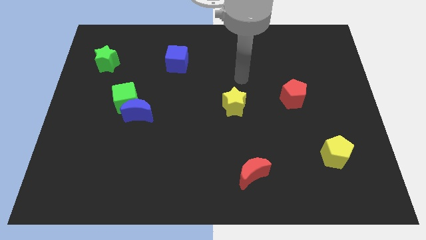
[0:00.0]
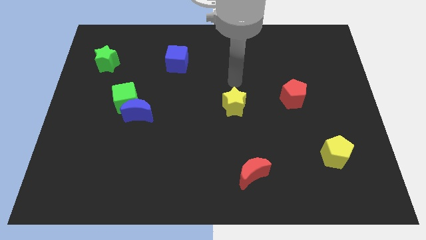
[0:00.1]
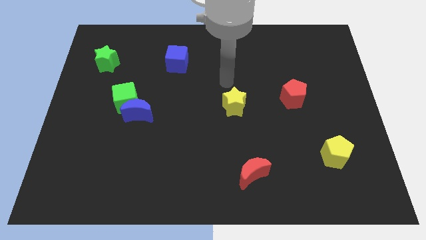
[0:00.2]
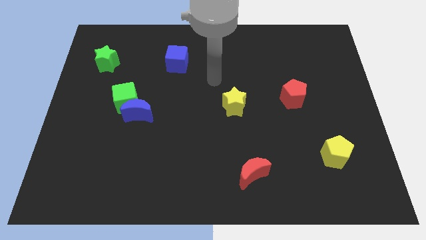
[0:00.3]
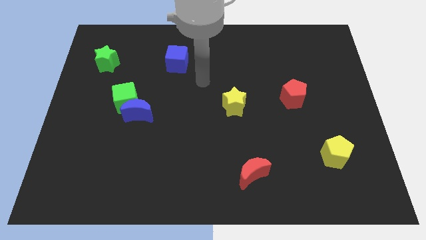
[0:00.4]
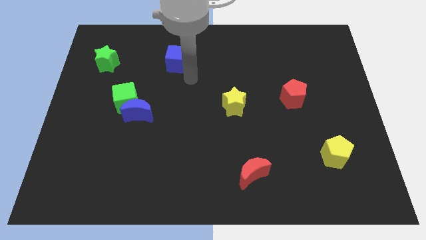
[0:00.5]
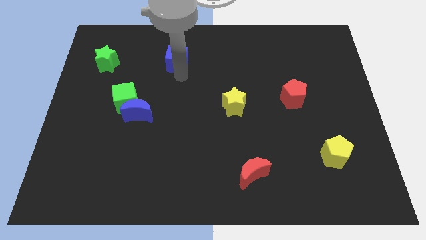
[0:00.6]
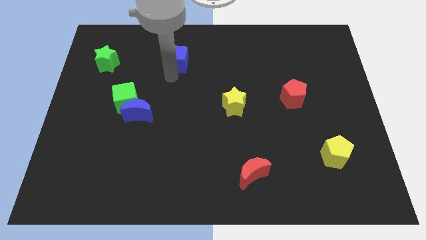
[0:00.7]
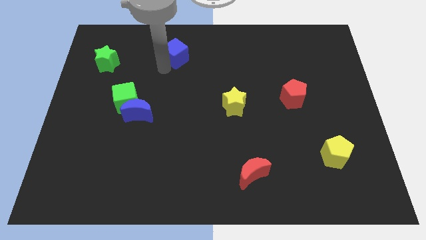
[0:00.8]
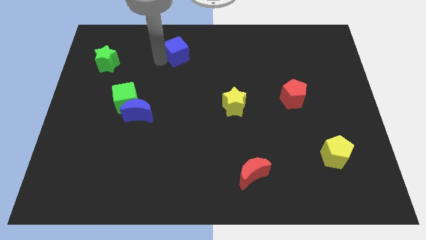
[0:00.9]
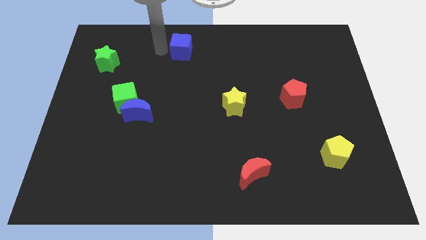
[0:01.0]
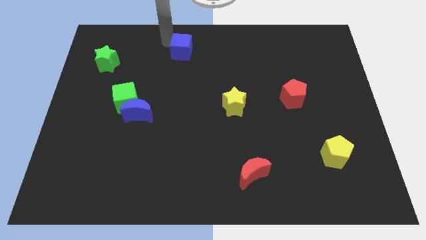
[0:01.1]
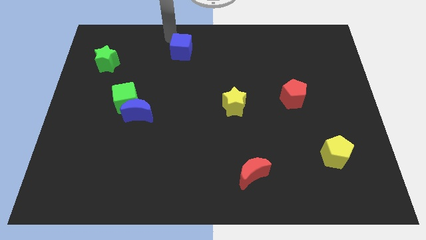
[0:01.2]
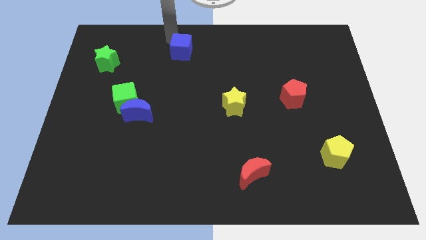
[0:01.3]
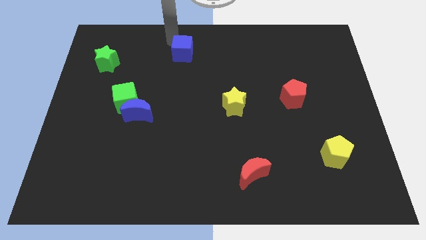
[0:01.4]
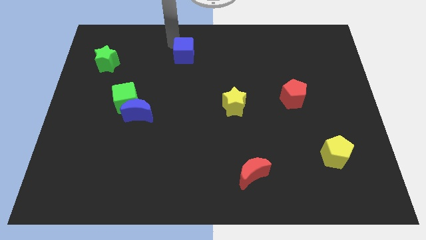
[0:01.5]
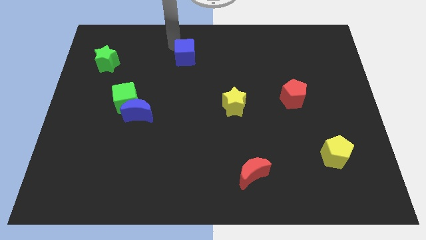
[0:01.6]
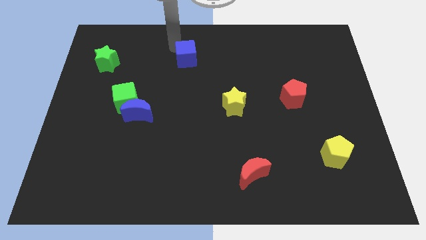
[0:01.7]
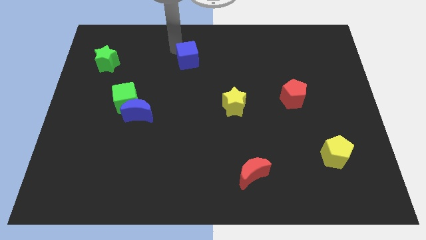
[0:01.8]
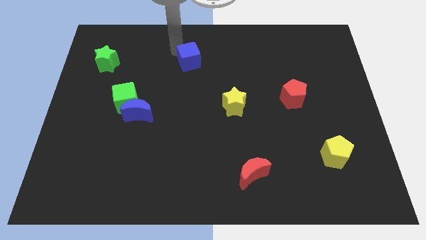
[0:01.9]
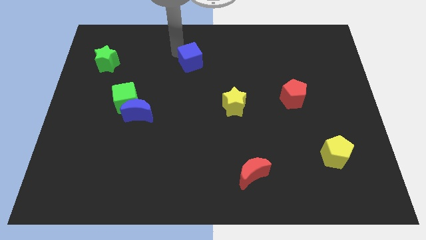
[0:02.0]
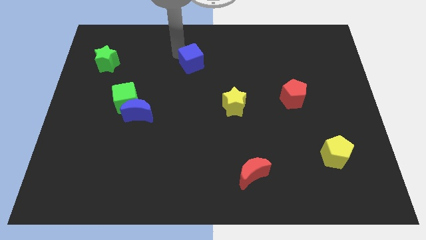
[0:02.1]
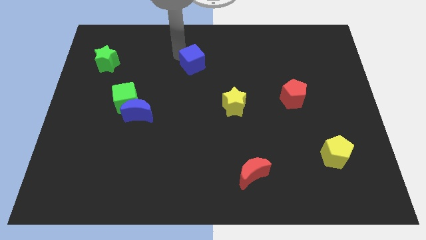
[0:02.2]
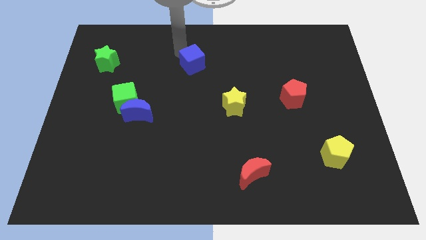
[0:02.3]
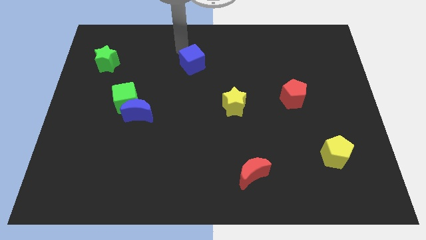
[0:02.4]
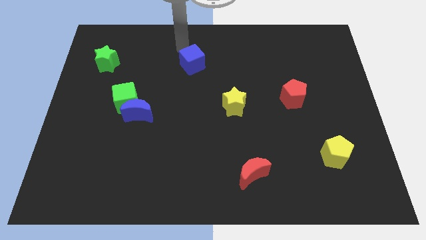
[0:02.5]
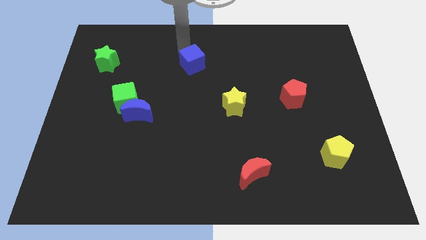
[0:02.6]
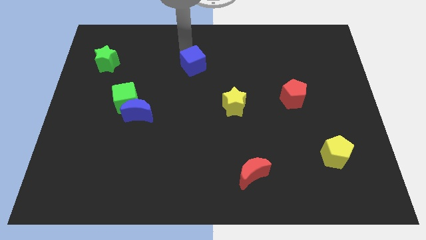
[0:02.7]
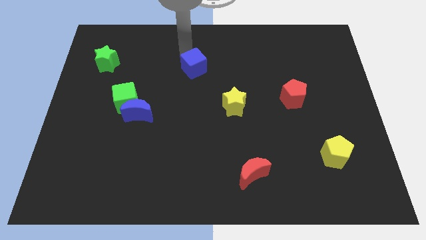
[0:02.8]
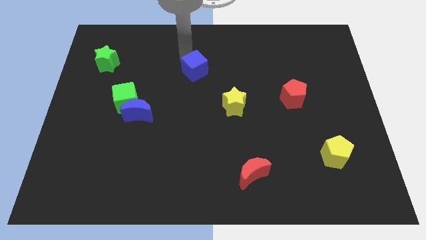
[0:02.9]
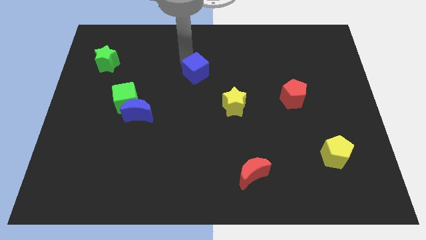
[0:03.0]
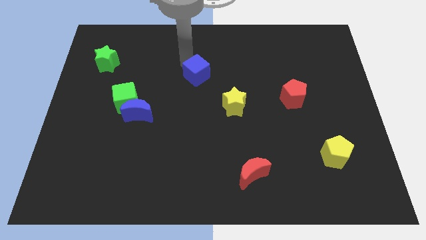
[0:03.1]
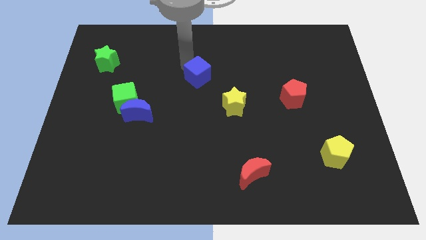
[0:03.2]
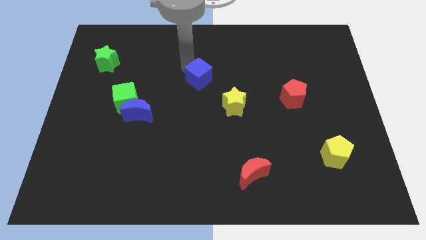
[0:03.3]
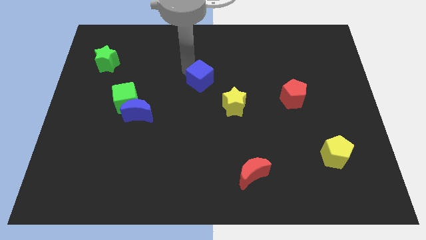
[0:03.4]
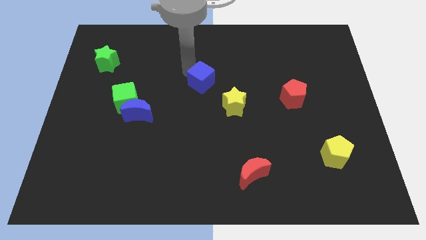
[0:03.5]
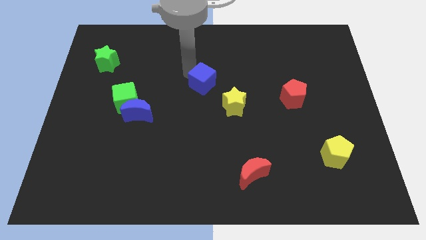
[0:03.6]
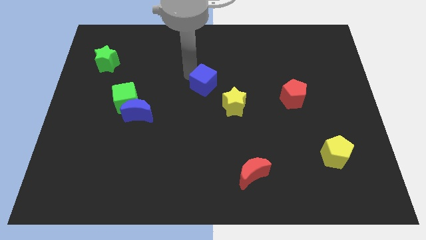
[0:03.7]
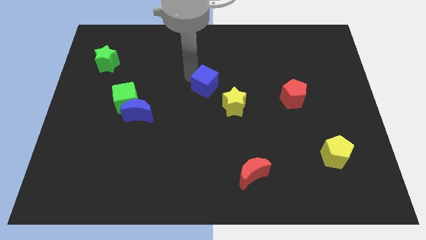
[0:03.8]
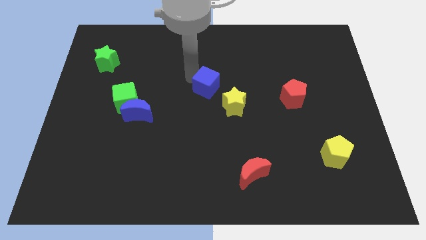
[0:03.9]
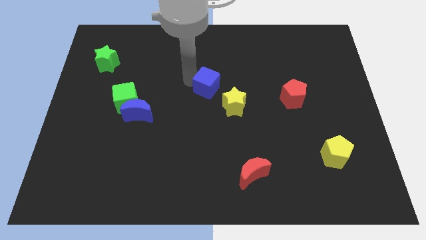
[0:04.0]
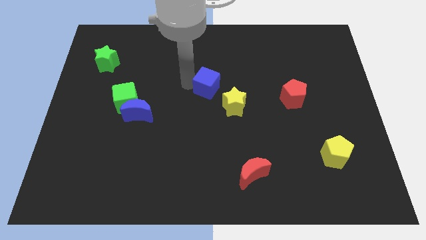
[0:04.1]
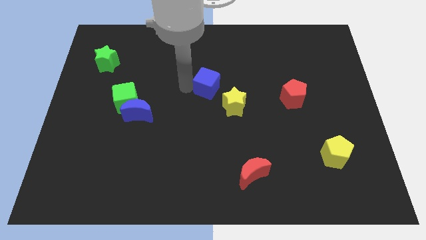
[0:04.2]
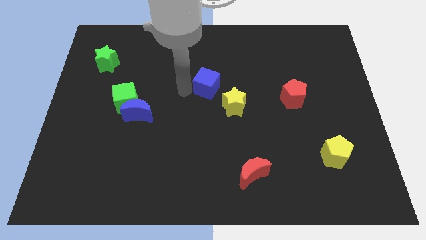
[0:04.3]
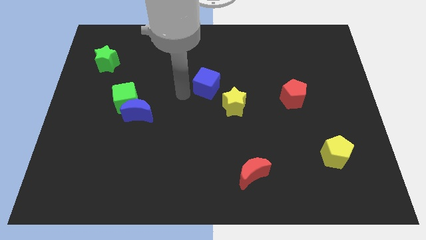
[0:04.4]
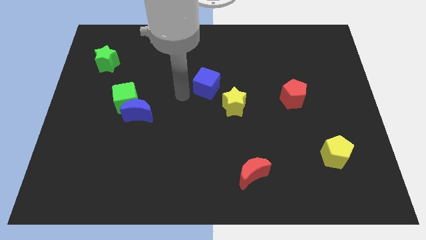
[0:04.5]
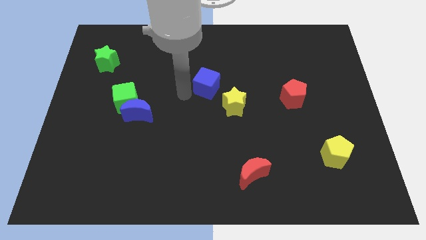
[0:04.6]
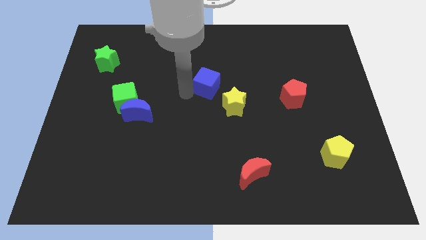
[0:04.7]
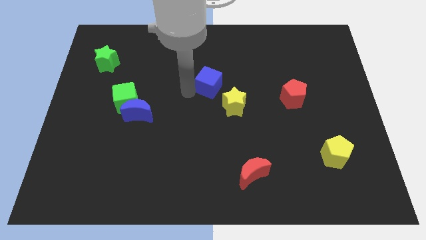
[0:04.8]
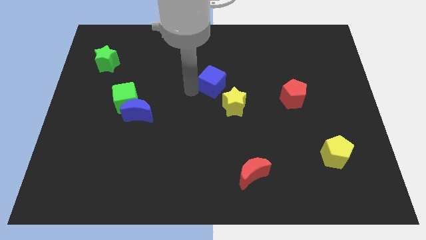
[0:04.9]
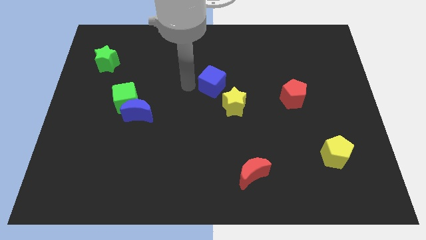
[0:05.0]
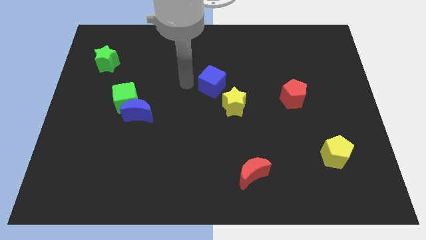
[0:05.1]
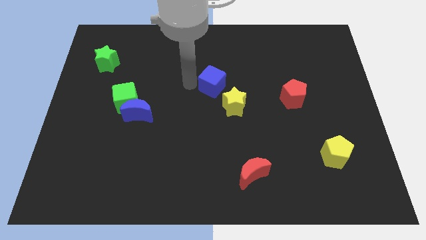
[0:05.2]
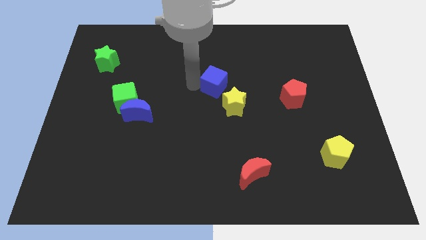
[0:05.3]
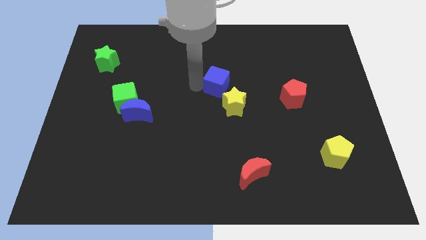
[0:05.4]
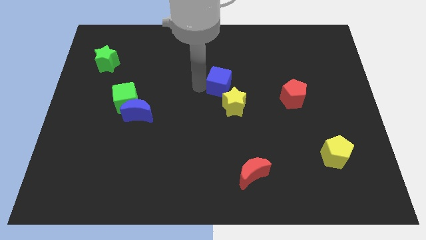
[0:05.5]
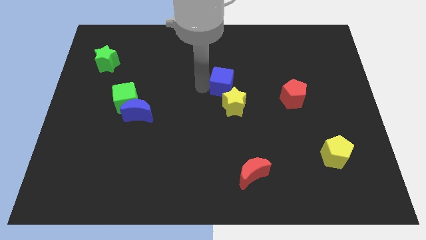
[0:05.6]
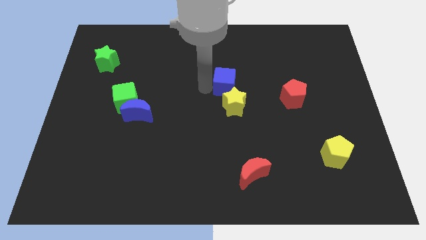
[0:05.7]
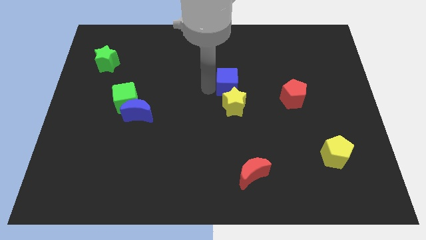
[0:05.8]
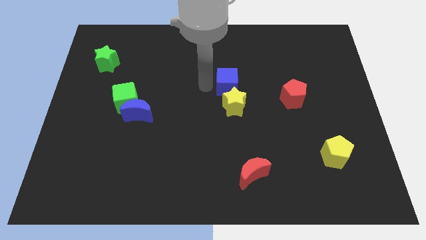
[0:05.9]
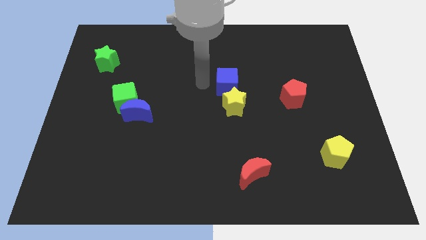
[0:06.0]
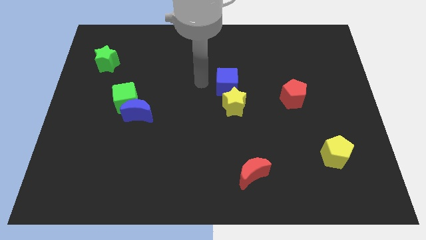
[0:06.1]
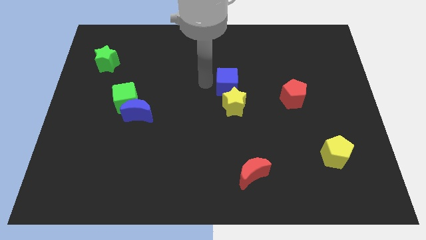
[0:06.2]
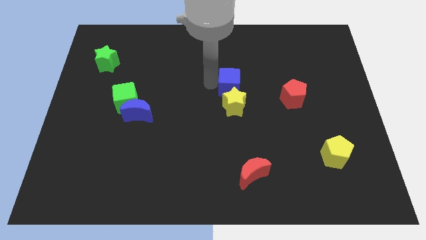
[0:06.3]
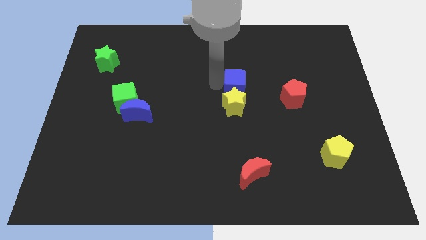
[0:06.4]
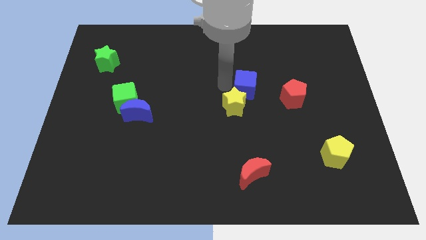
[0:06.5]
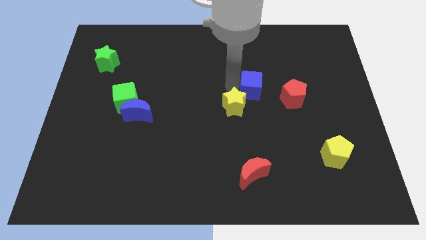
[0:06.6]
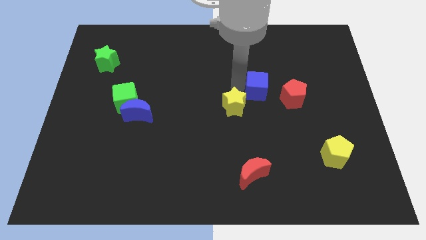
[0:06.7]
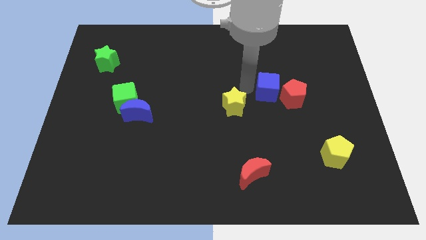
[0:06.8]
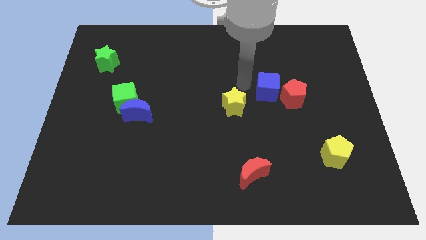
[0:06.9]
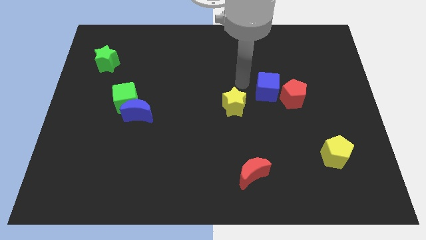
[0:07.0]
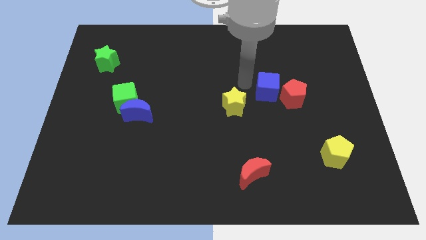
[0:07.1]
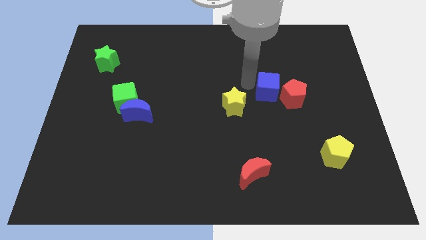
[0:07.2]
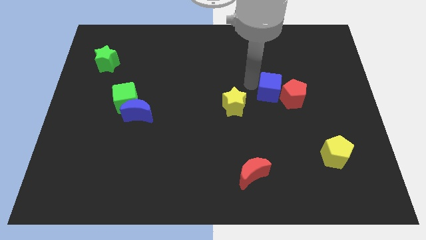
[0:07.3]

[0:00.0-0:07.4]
slide the blue cube to the red pentagon

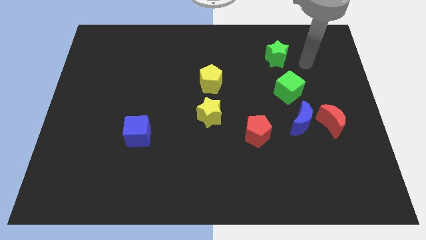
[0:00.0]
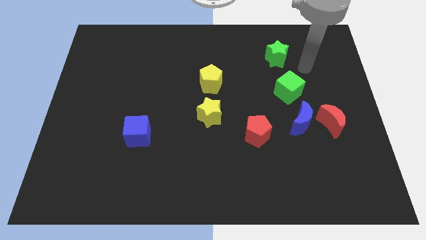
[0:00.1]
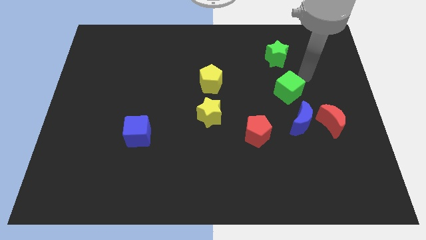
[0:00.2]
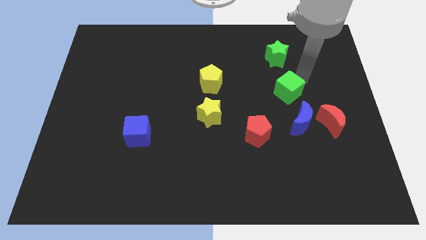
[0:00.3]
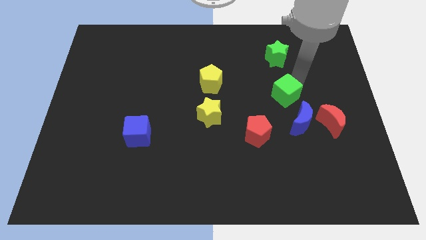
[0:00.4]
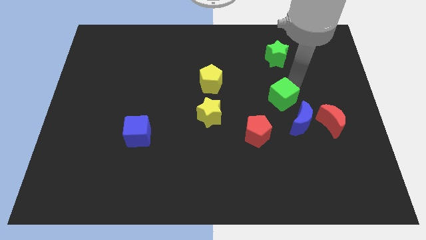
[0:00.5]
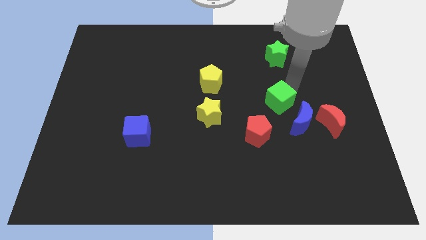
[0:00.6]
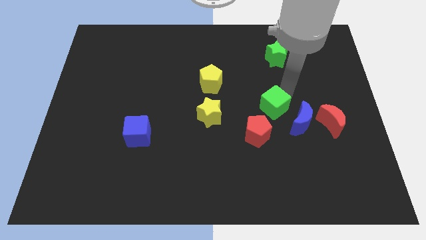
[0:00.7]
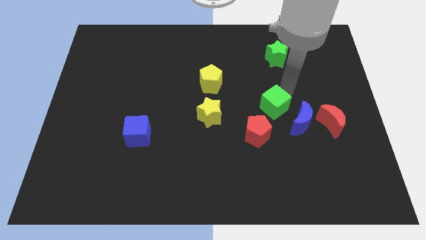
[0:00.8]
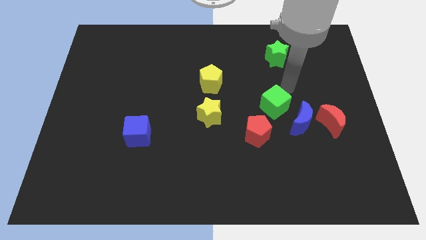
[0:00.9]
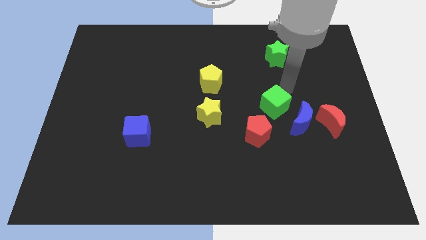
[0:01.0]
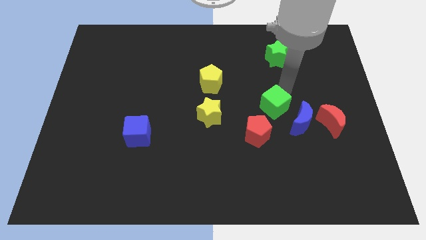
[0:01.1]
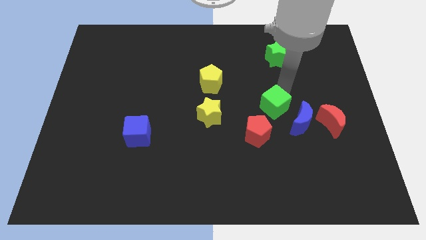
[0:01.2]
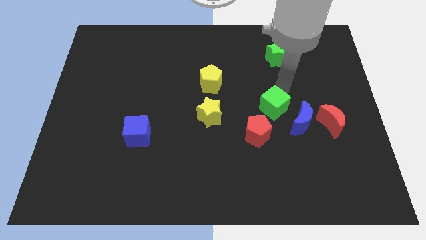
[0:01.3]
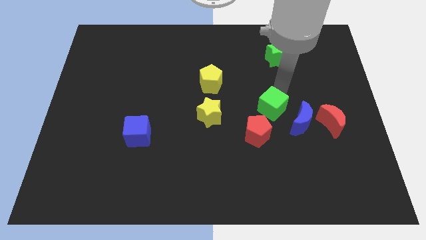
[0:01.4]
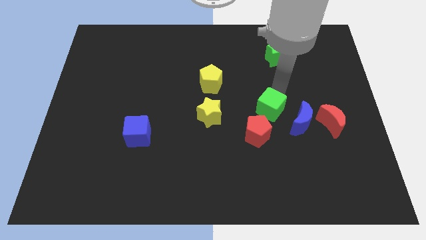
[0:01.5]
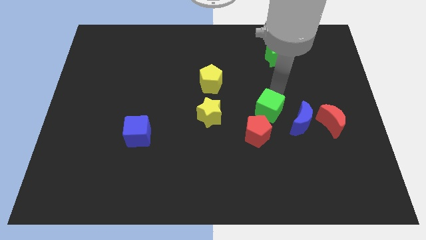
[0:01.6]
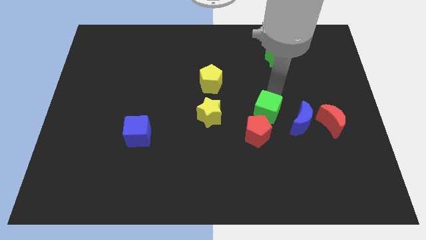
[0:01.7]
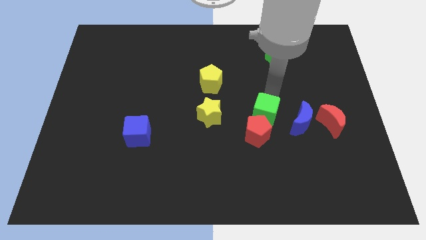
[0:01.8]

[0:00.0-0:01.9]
put the green cube to the red pentagon

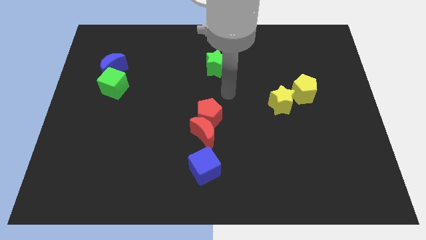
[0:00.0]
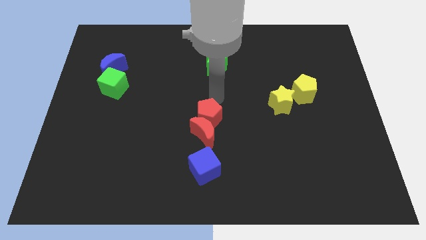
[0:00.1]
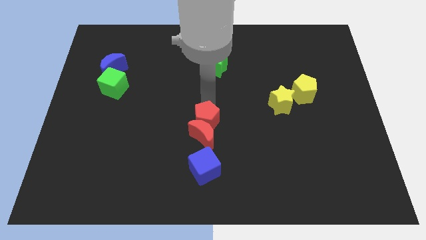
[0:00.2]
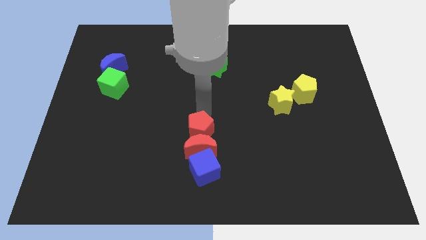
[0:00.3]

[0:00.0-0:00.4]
slide the red moon to the blue cube
